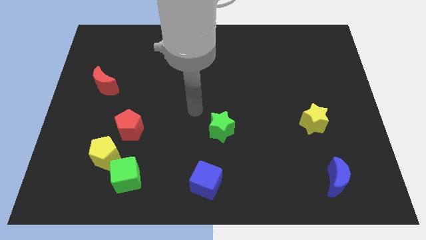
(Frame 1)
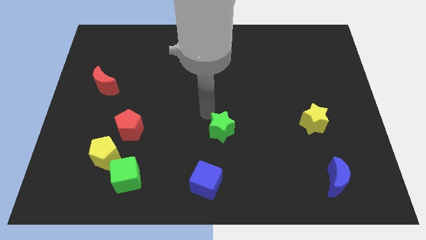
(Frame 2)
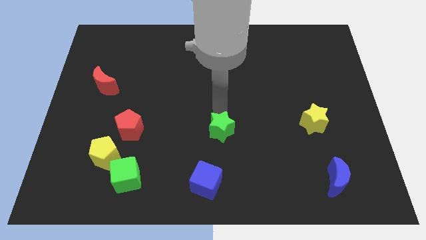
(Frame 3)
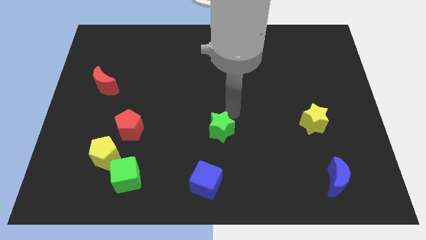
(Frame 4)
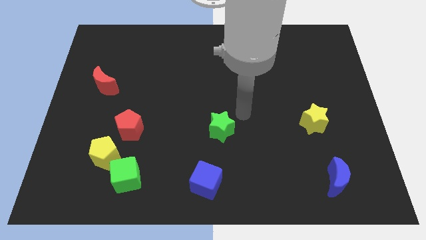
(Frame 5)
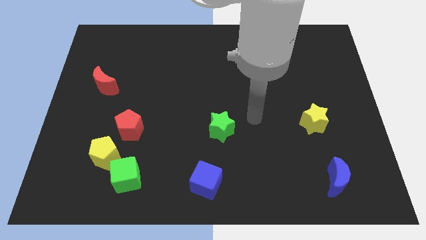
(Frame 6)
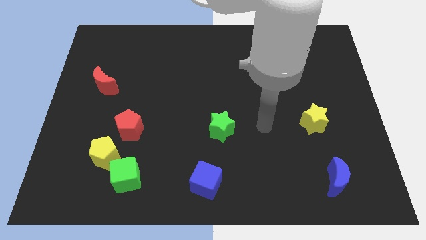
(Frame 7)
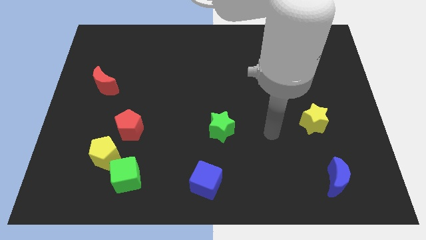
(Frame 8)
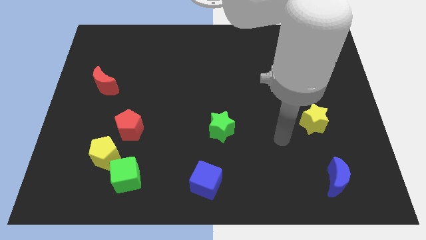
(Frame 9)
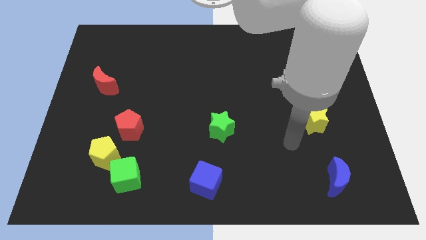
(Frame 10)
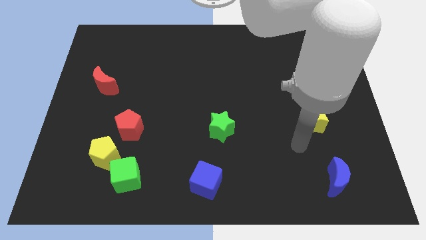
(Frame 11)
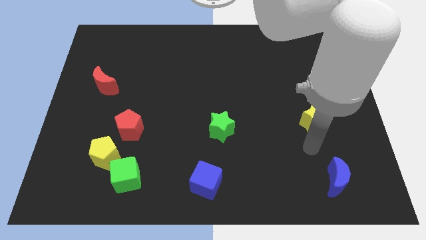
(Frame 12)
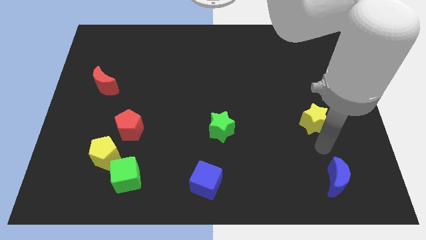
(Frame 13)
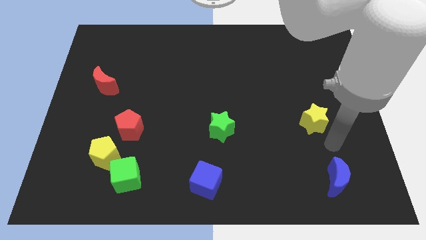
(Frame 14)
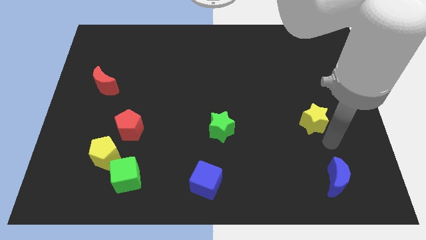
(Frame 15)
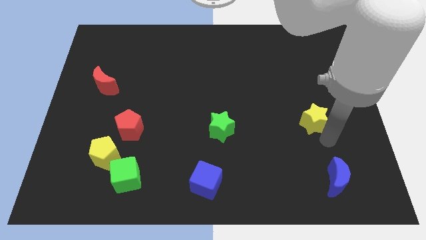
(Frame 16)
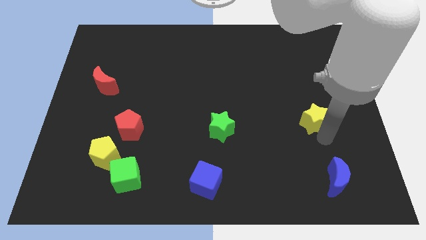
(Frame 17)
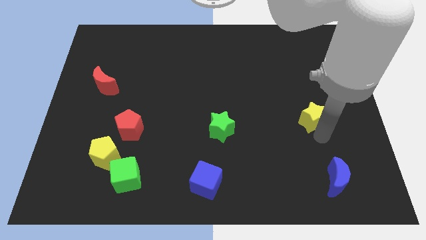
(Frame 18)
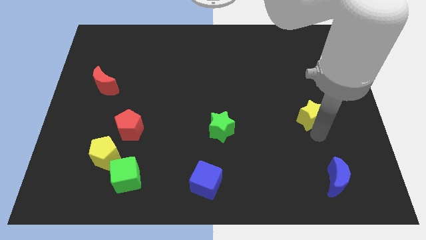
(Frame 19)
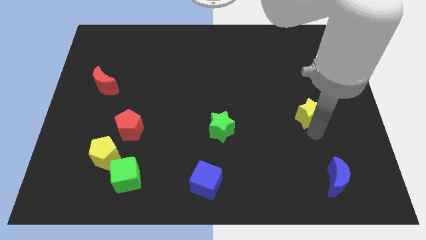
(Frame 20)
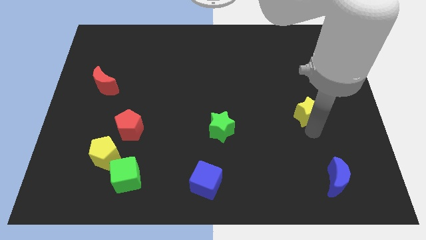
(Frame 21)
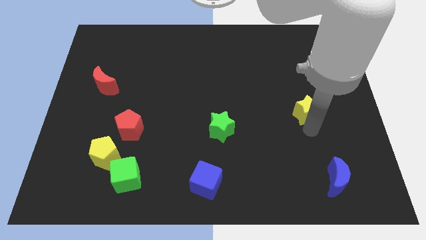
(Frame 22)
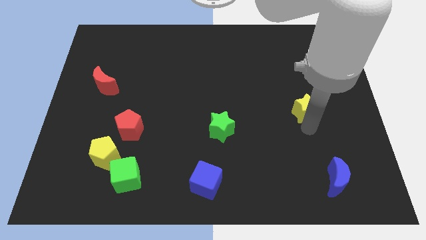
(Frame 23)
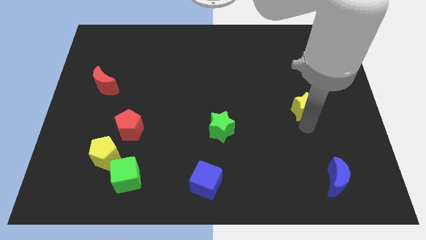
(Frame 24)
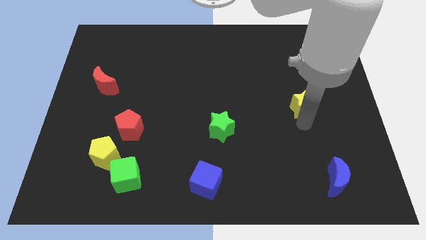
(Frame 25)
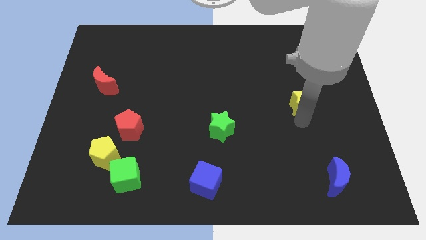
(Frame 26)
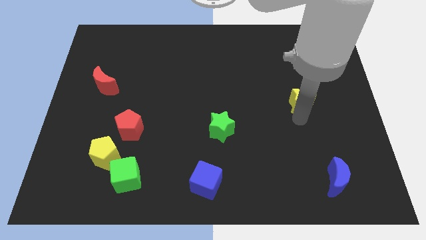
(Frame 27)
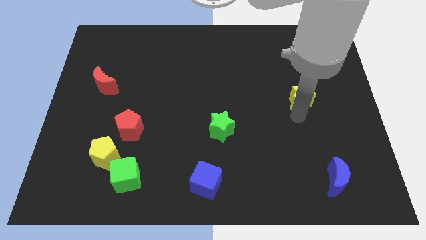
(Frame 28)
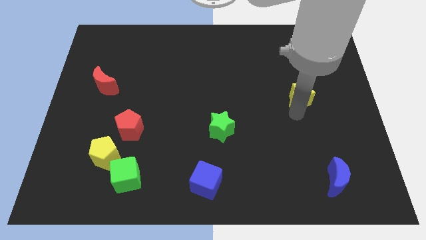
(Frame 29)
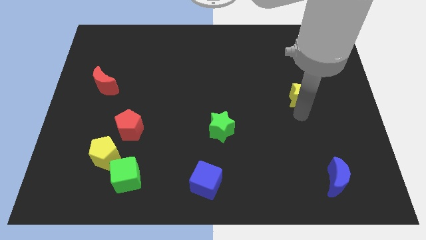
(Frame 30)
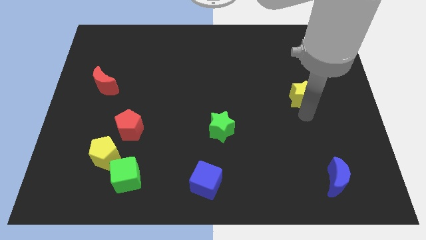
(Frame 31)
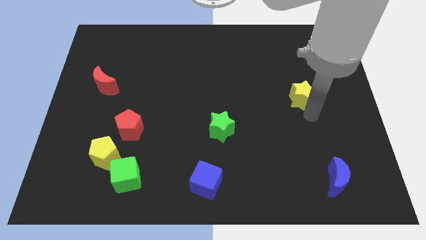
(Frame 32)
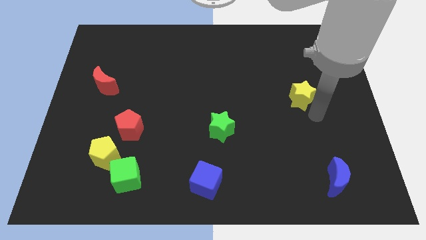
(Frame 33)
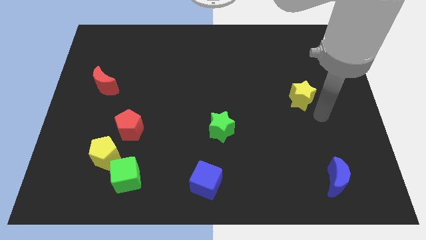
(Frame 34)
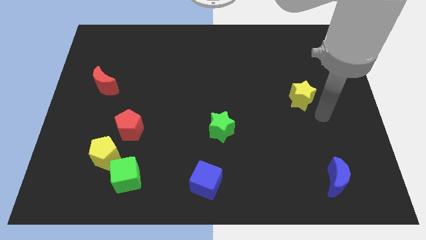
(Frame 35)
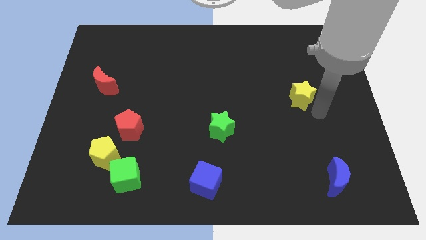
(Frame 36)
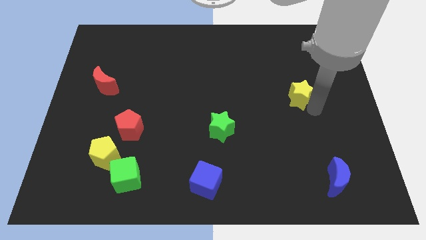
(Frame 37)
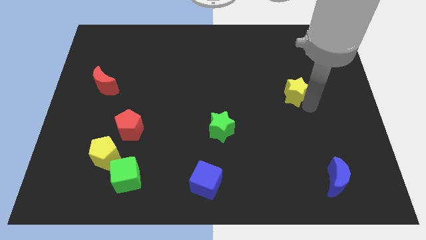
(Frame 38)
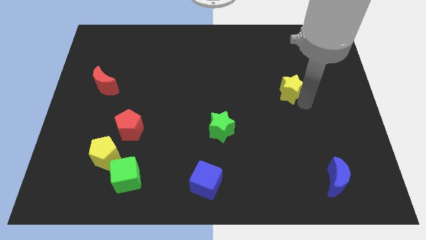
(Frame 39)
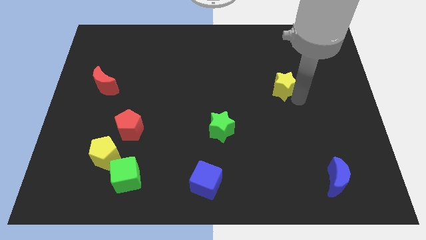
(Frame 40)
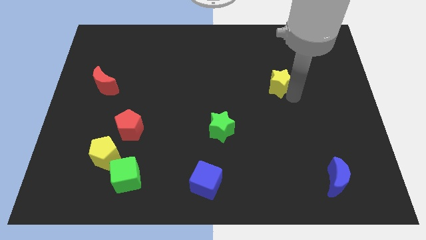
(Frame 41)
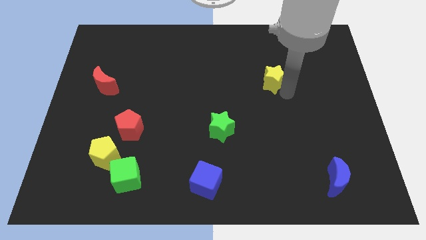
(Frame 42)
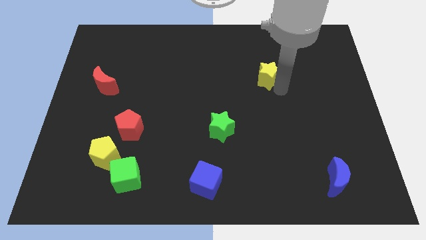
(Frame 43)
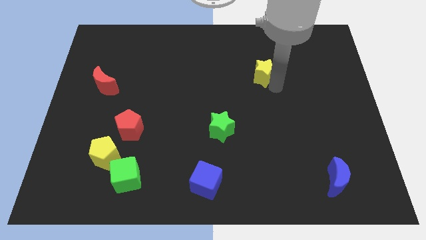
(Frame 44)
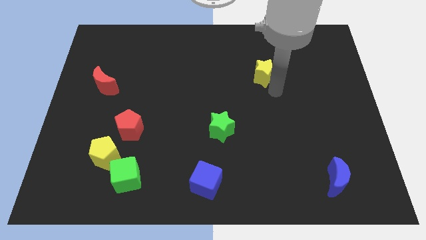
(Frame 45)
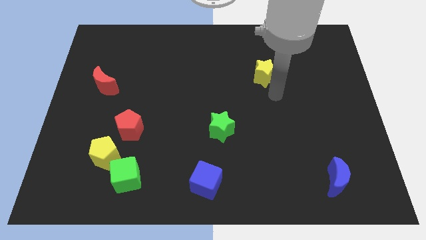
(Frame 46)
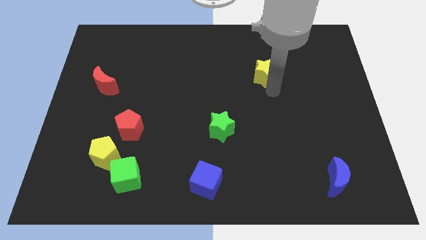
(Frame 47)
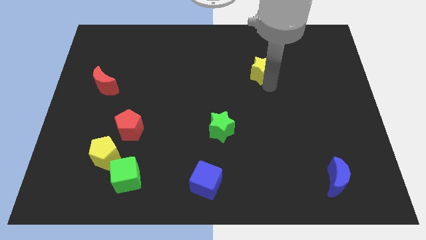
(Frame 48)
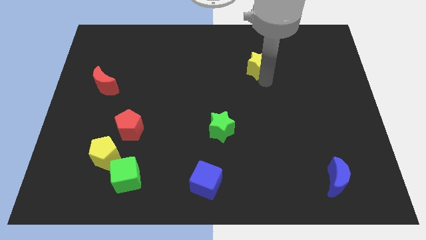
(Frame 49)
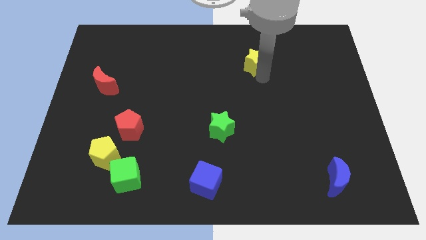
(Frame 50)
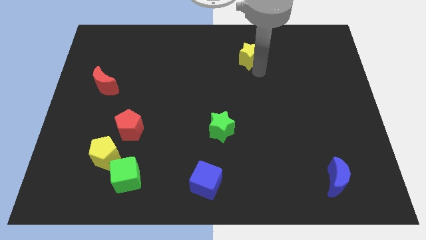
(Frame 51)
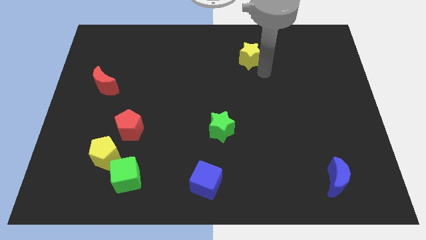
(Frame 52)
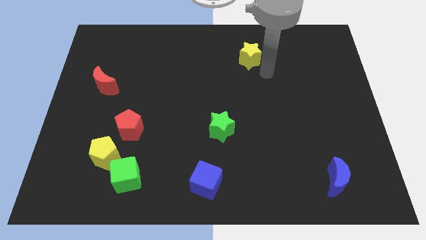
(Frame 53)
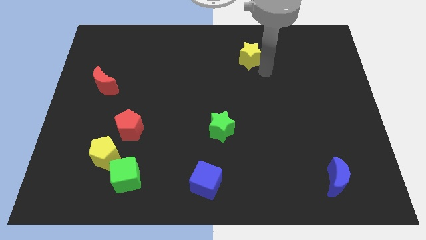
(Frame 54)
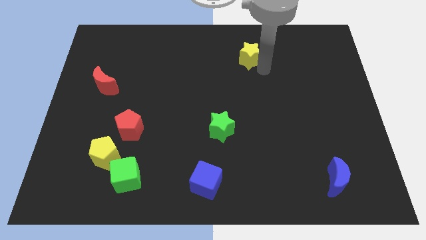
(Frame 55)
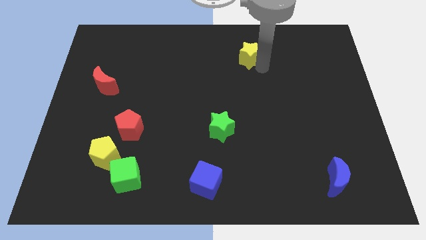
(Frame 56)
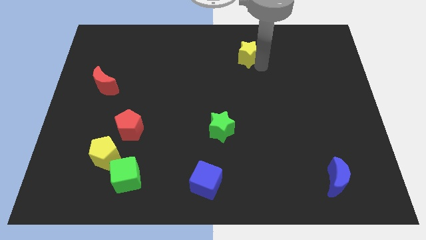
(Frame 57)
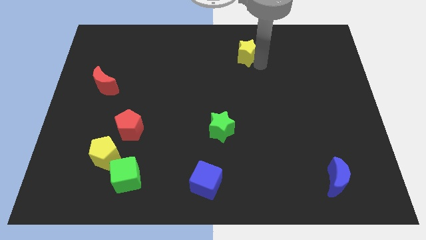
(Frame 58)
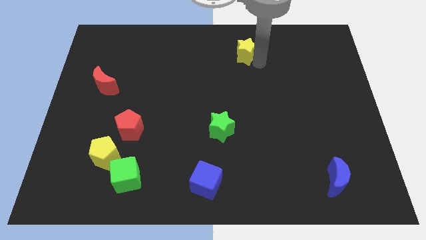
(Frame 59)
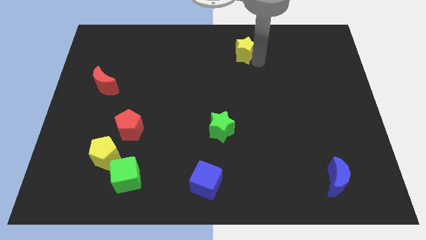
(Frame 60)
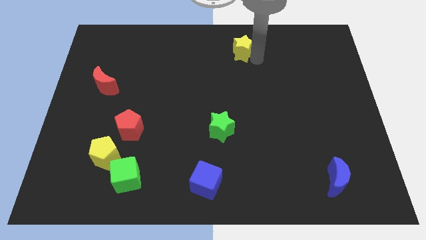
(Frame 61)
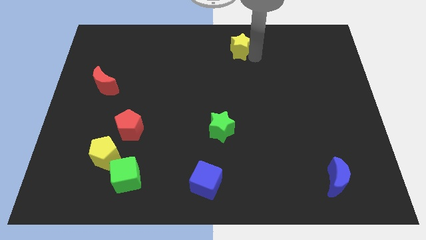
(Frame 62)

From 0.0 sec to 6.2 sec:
put the yellow star to the top
